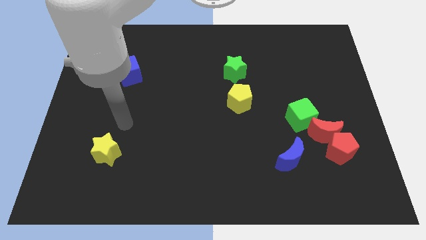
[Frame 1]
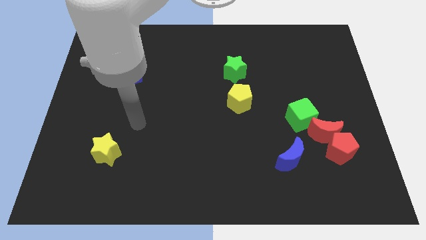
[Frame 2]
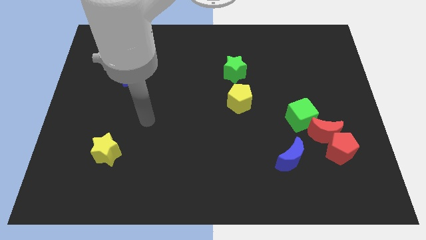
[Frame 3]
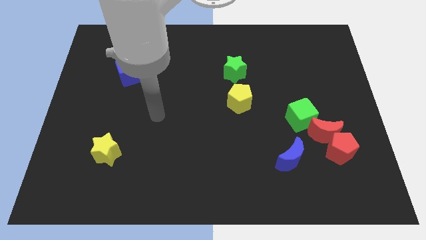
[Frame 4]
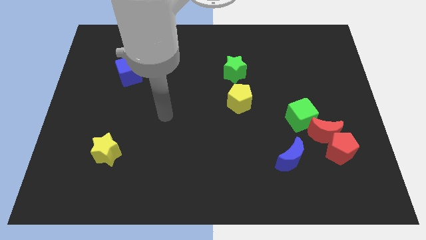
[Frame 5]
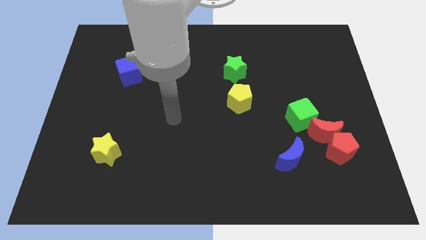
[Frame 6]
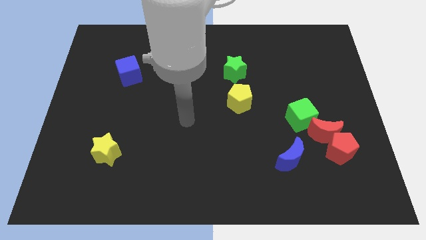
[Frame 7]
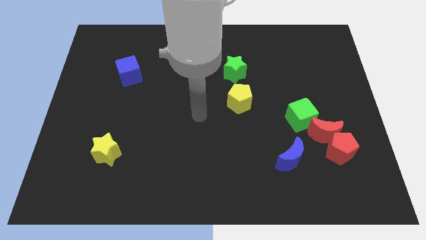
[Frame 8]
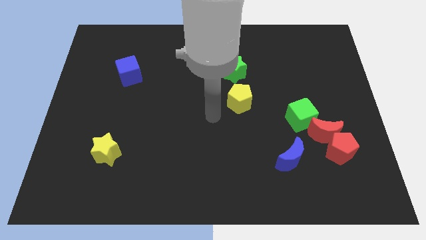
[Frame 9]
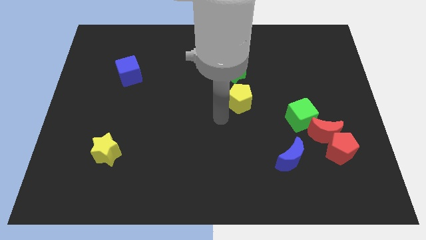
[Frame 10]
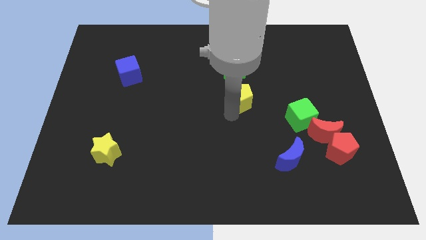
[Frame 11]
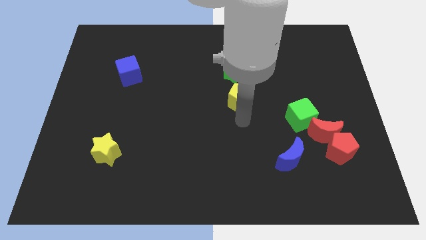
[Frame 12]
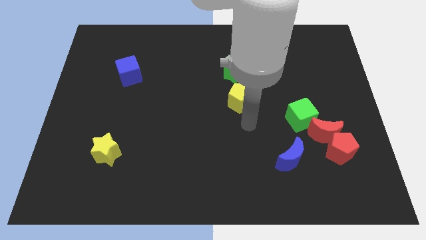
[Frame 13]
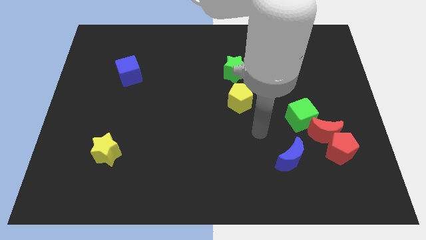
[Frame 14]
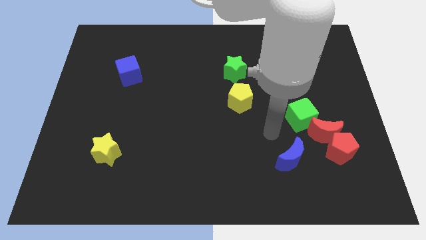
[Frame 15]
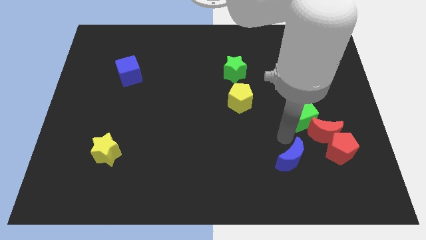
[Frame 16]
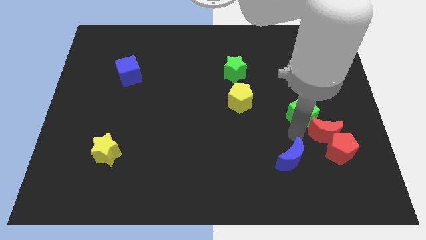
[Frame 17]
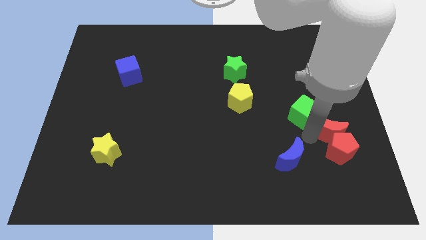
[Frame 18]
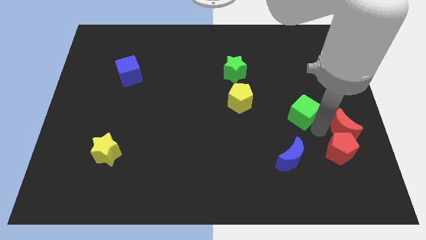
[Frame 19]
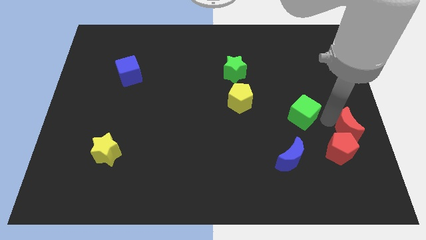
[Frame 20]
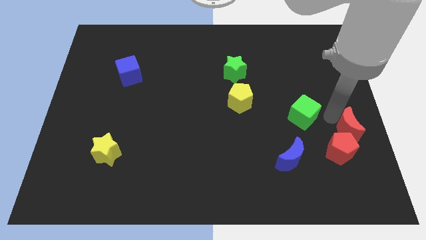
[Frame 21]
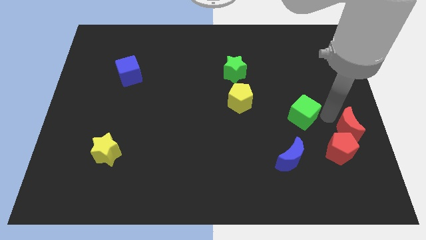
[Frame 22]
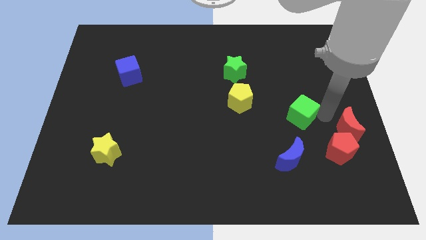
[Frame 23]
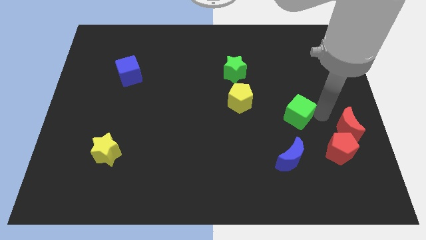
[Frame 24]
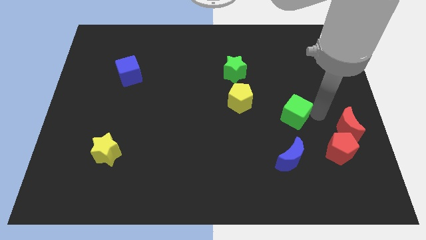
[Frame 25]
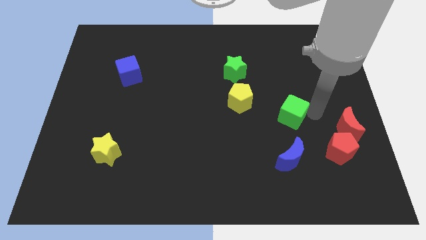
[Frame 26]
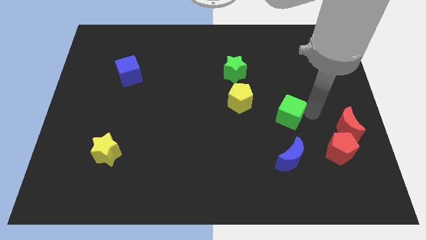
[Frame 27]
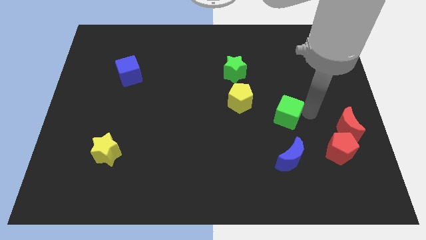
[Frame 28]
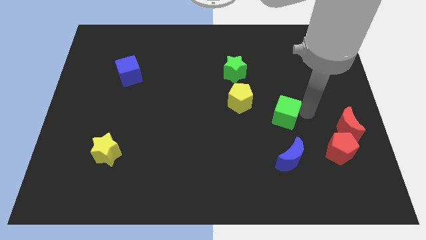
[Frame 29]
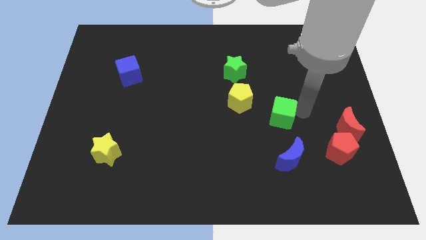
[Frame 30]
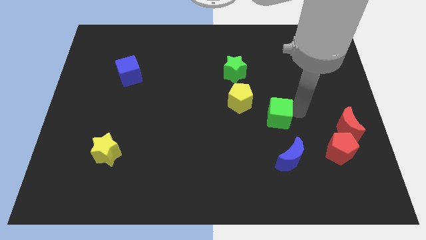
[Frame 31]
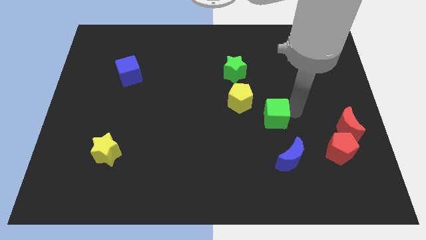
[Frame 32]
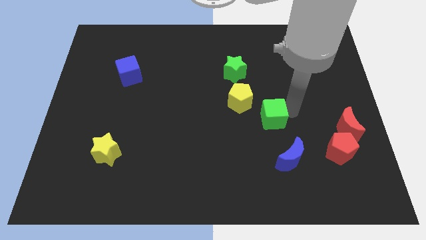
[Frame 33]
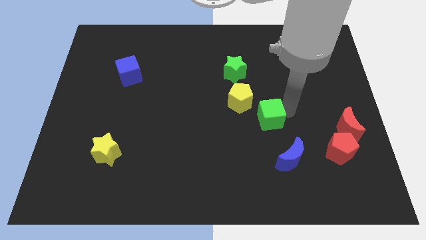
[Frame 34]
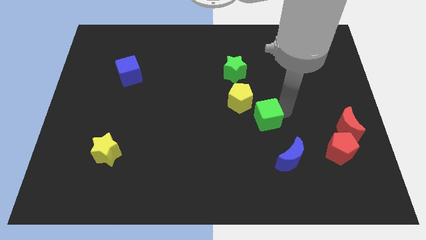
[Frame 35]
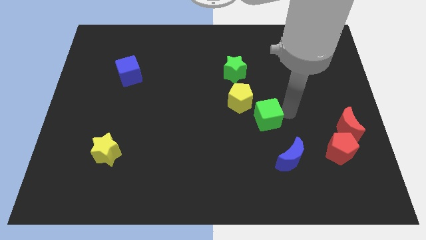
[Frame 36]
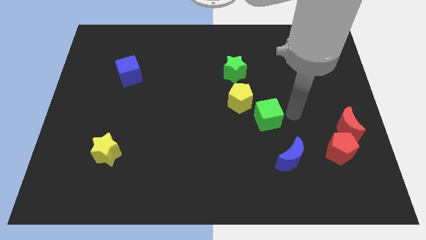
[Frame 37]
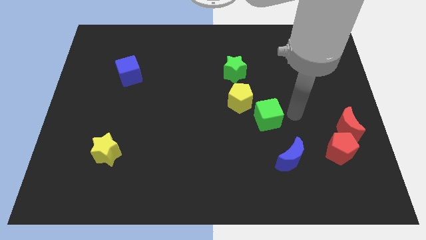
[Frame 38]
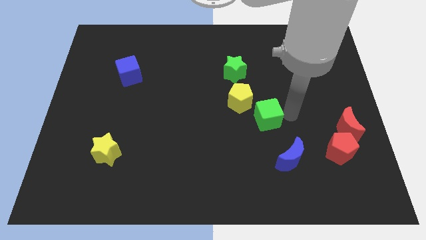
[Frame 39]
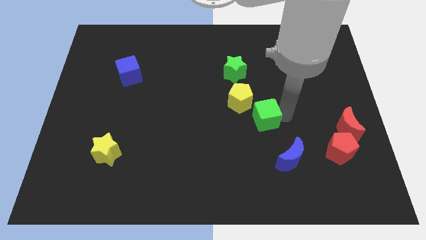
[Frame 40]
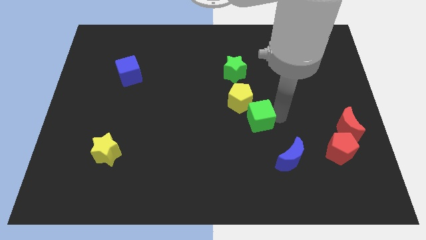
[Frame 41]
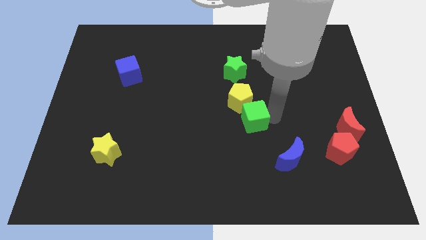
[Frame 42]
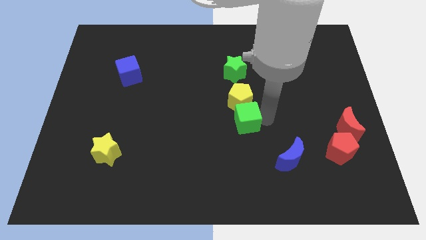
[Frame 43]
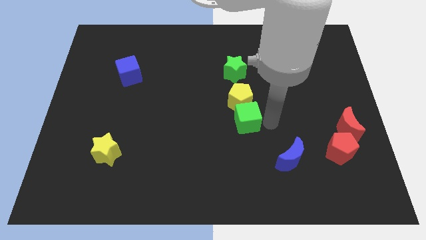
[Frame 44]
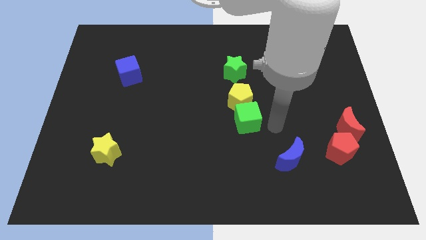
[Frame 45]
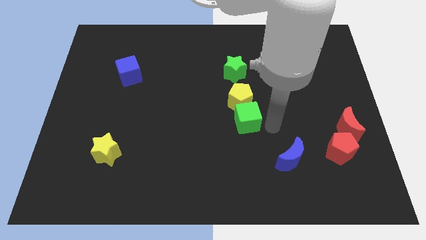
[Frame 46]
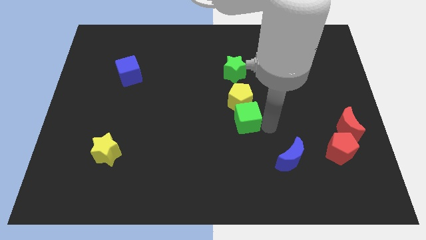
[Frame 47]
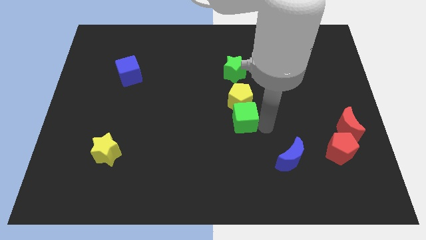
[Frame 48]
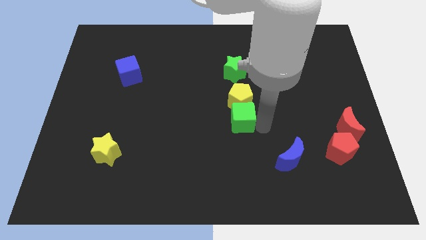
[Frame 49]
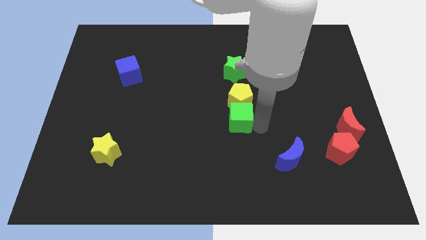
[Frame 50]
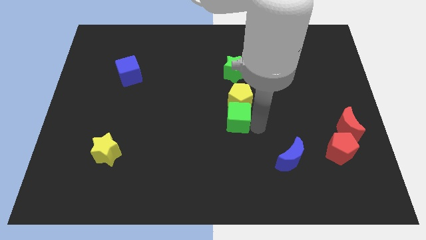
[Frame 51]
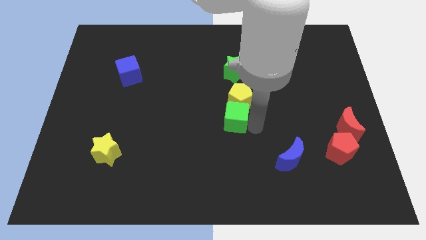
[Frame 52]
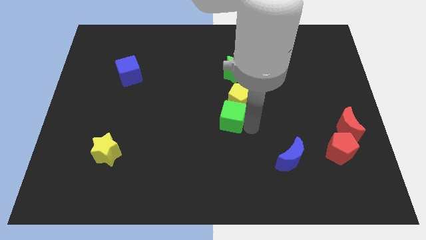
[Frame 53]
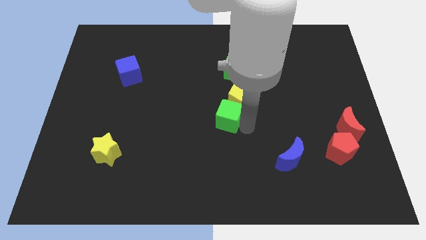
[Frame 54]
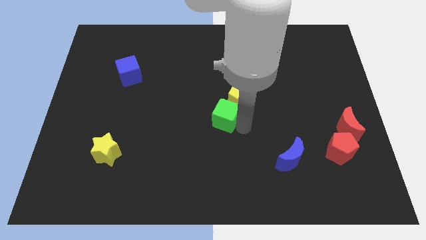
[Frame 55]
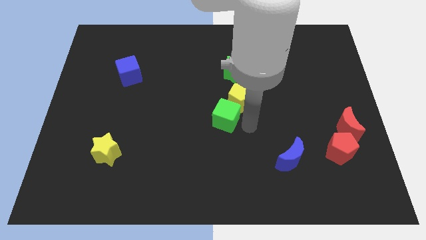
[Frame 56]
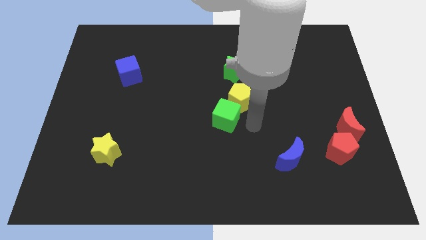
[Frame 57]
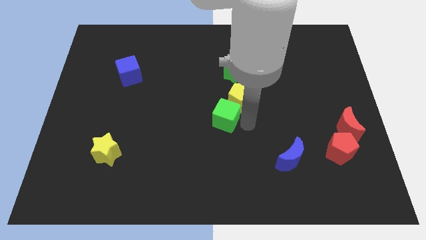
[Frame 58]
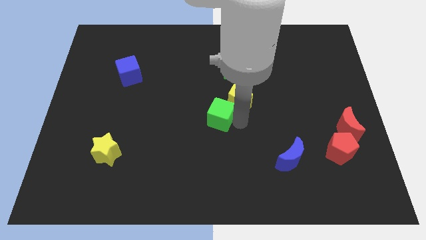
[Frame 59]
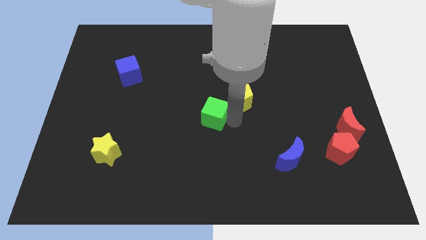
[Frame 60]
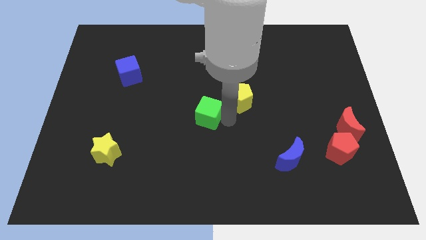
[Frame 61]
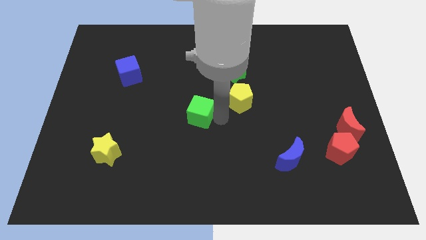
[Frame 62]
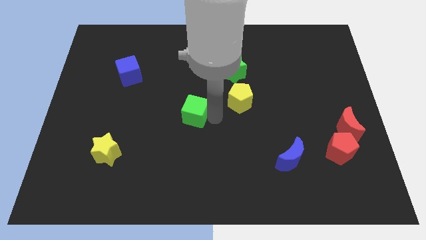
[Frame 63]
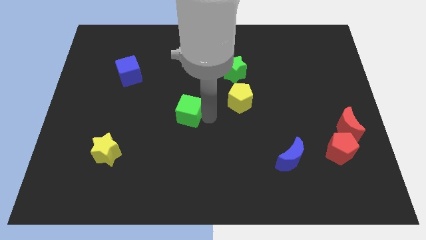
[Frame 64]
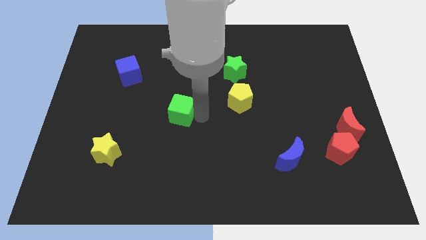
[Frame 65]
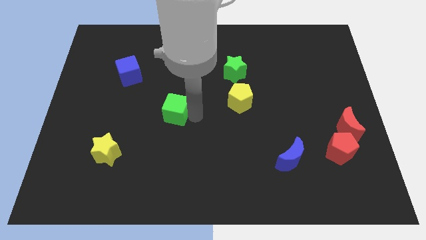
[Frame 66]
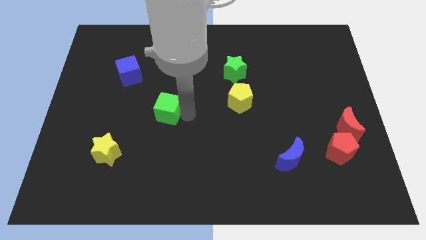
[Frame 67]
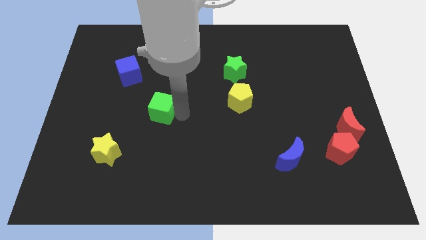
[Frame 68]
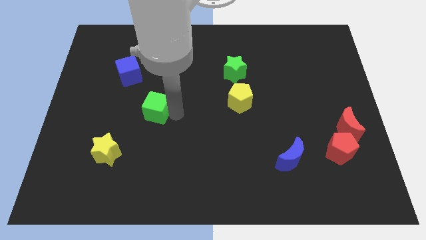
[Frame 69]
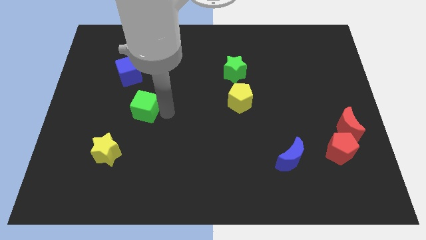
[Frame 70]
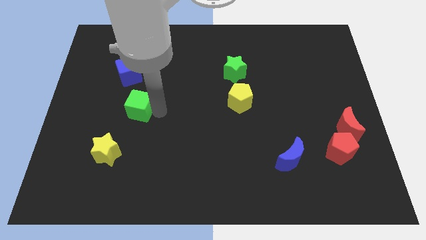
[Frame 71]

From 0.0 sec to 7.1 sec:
push the green cube below the blue cube

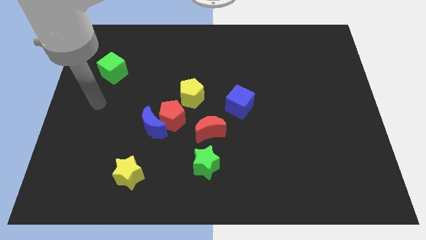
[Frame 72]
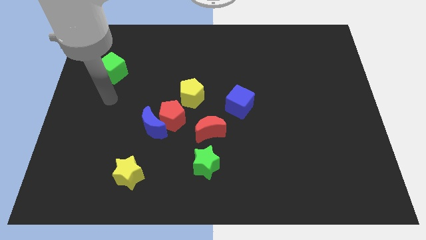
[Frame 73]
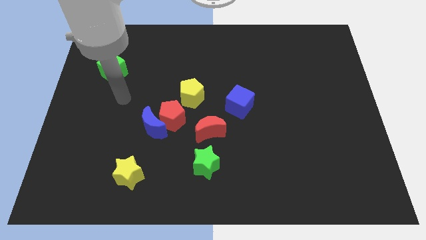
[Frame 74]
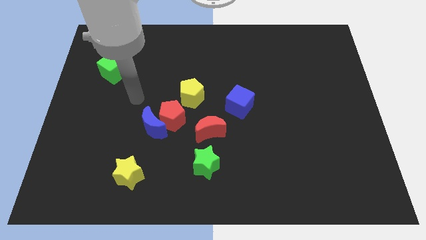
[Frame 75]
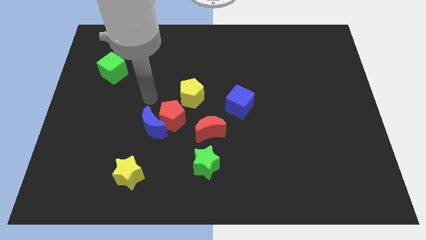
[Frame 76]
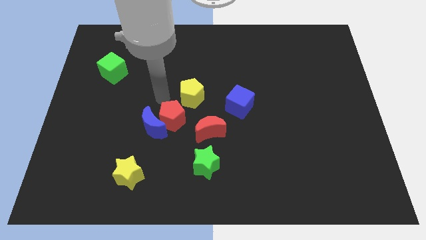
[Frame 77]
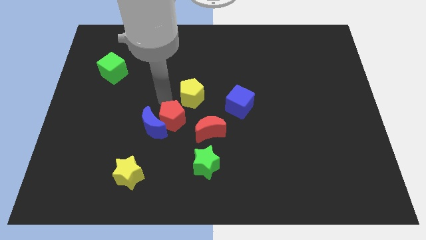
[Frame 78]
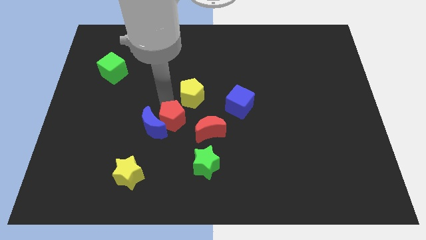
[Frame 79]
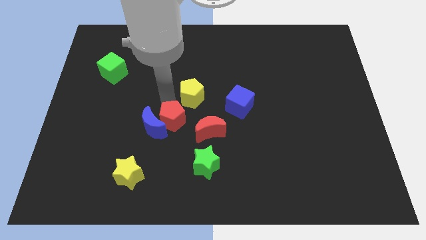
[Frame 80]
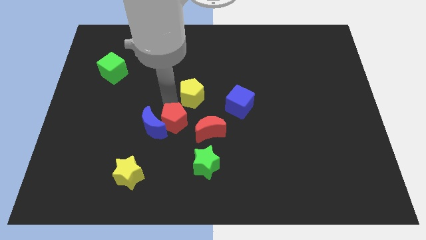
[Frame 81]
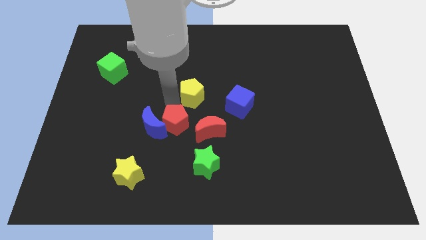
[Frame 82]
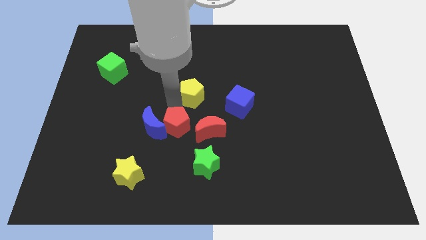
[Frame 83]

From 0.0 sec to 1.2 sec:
move the red pentagon to the top left of the green star
